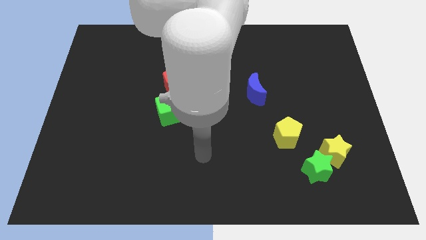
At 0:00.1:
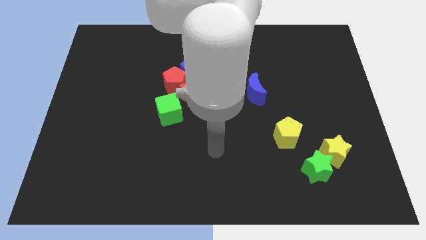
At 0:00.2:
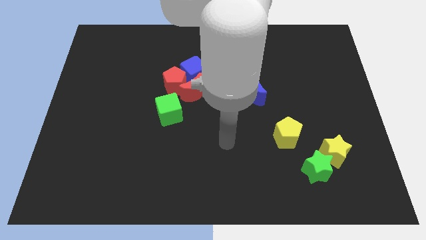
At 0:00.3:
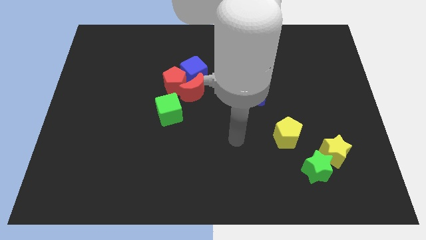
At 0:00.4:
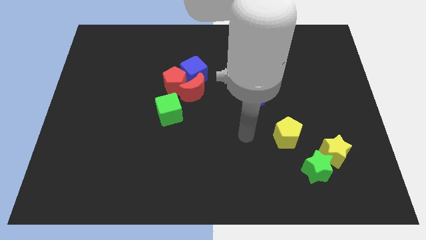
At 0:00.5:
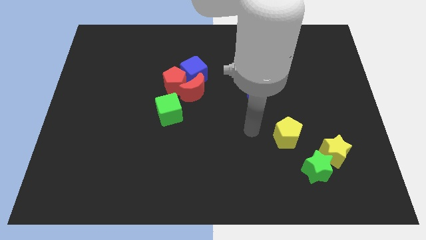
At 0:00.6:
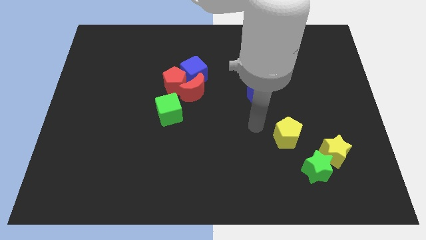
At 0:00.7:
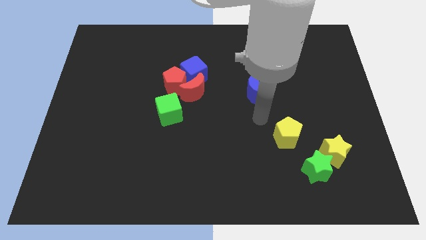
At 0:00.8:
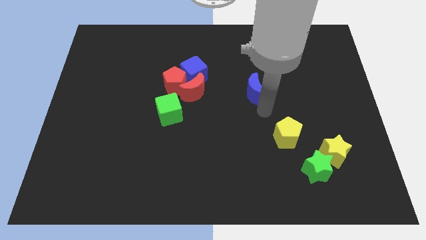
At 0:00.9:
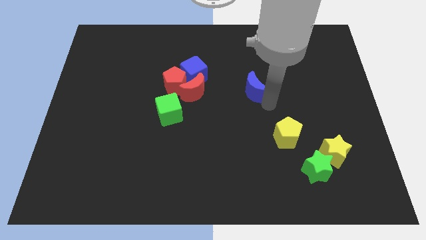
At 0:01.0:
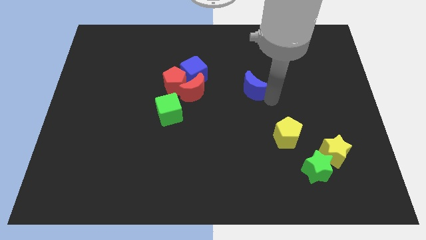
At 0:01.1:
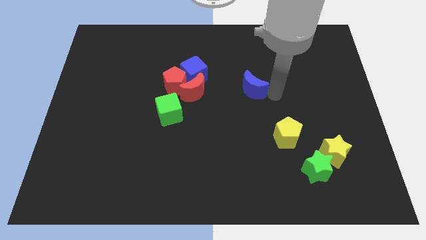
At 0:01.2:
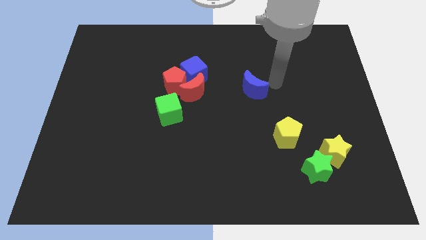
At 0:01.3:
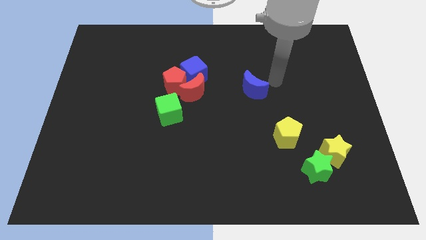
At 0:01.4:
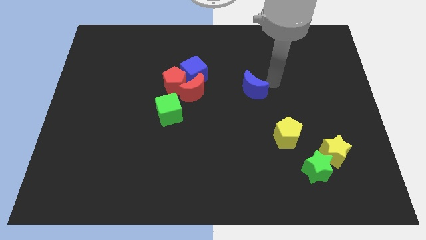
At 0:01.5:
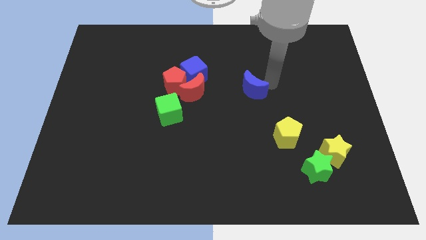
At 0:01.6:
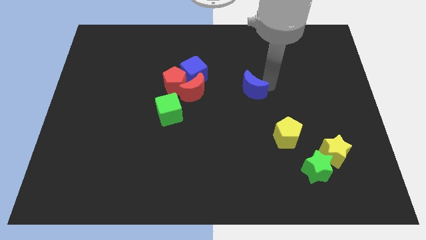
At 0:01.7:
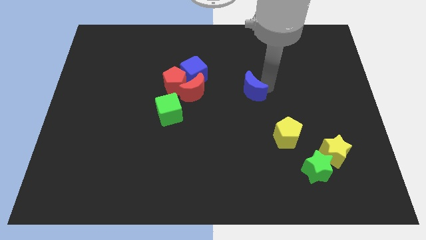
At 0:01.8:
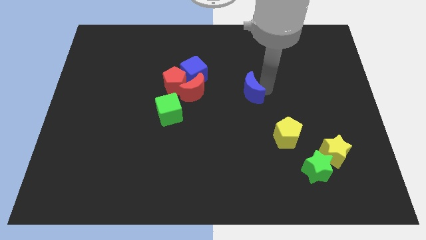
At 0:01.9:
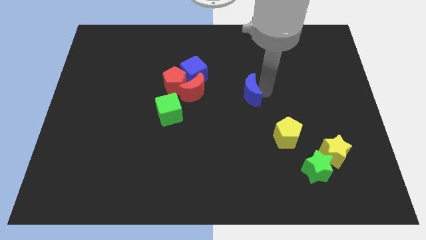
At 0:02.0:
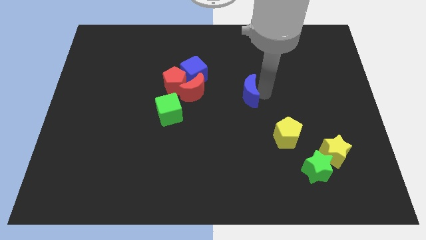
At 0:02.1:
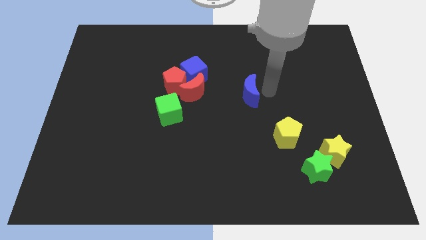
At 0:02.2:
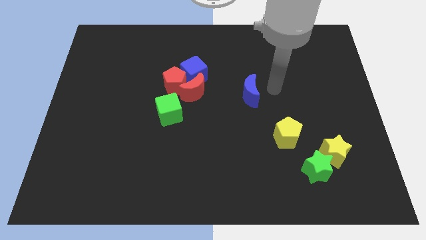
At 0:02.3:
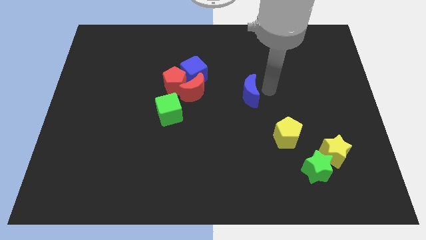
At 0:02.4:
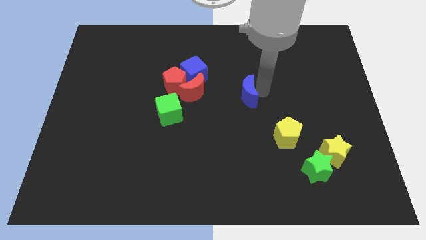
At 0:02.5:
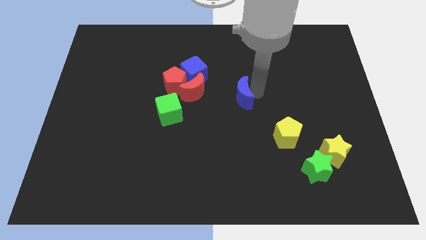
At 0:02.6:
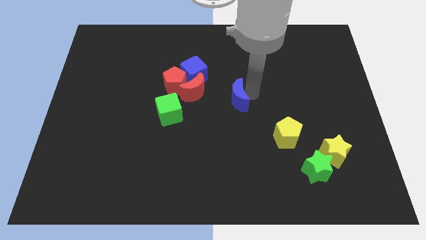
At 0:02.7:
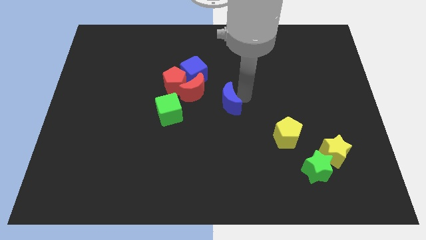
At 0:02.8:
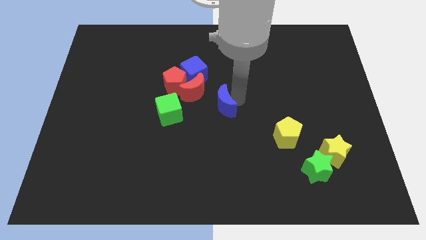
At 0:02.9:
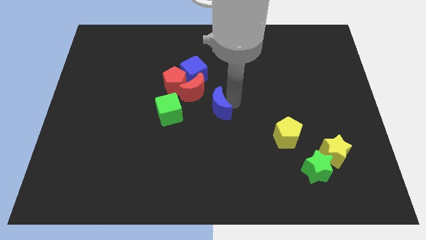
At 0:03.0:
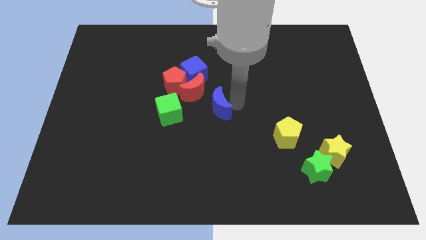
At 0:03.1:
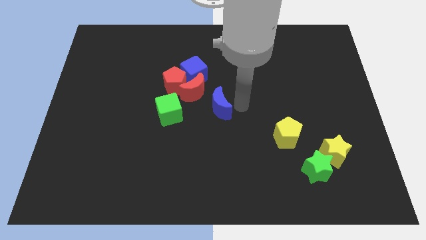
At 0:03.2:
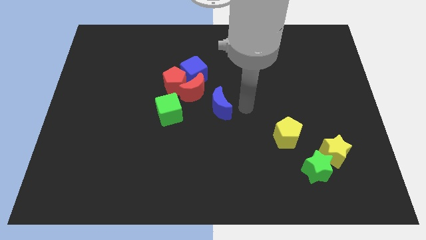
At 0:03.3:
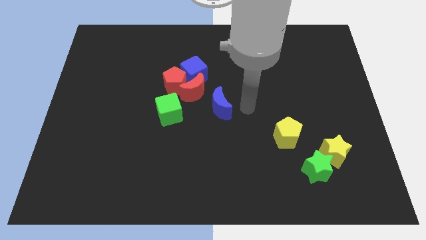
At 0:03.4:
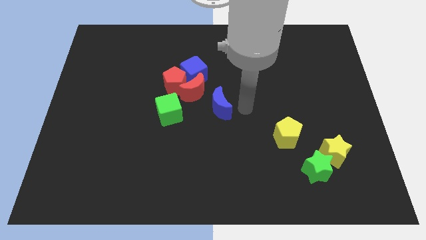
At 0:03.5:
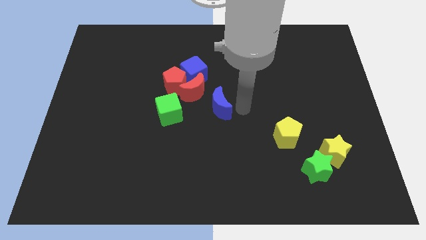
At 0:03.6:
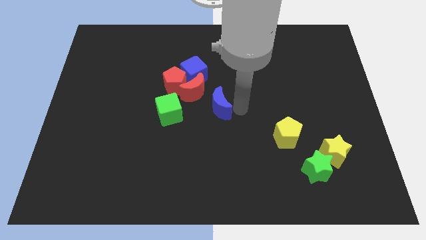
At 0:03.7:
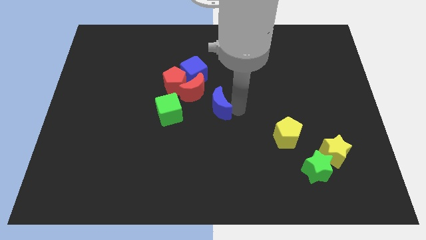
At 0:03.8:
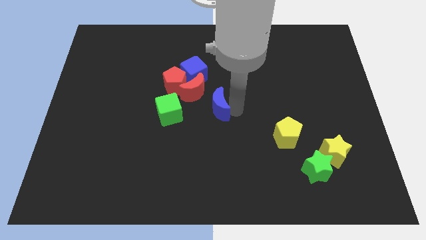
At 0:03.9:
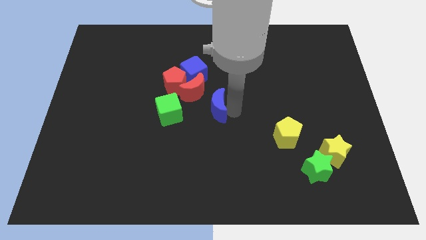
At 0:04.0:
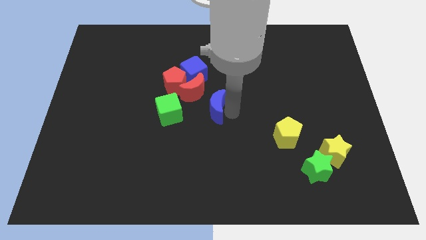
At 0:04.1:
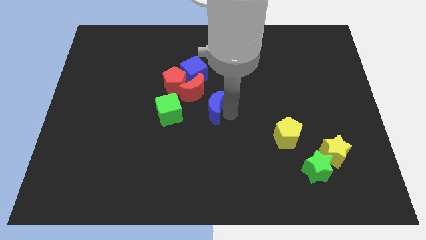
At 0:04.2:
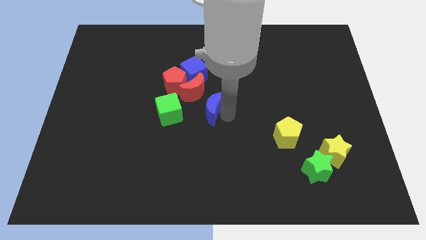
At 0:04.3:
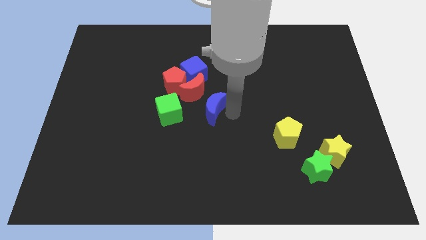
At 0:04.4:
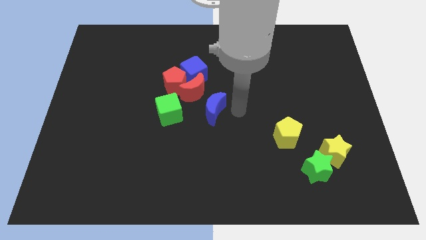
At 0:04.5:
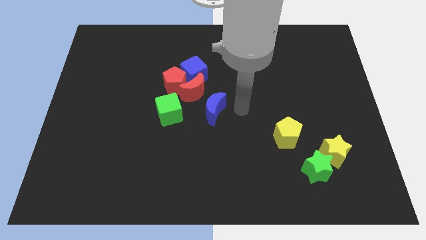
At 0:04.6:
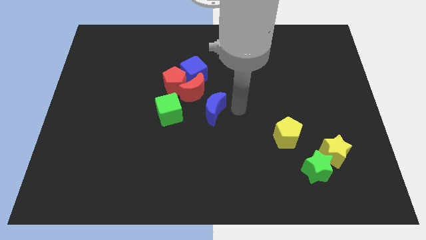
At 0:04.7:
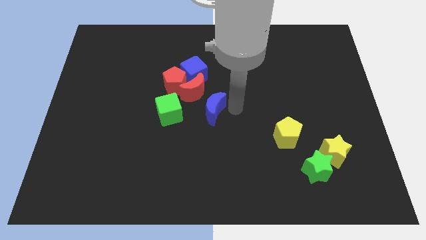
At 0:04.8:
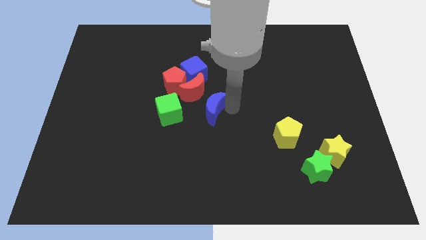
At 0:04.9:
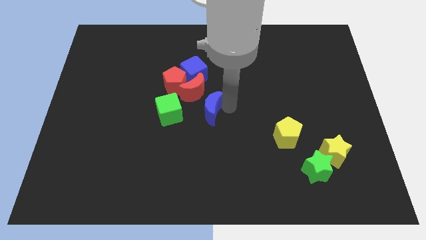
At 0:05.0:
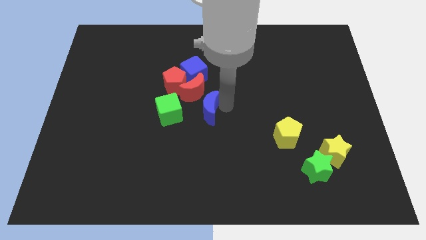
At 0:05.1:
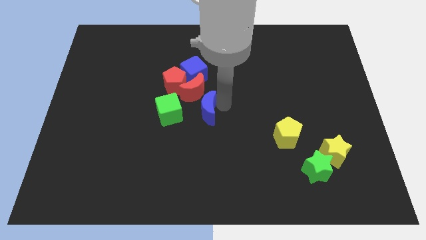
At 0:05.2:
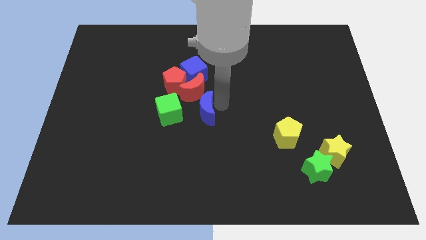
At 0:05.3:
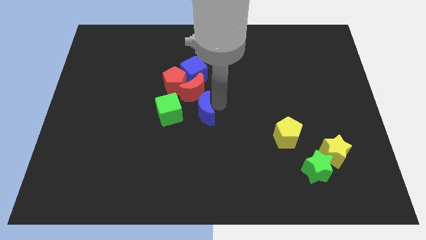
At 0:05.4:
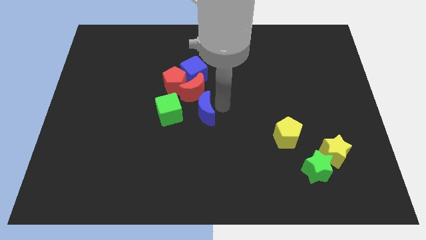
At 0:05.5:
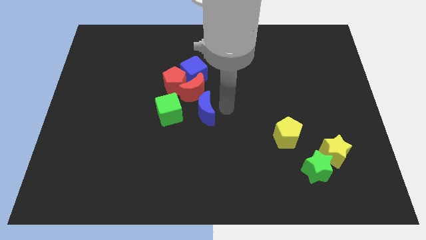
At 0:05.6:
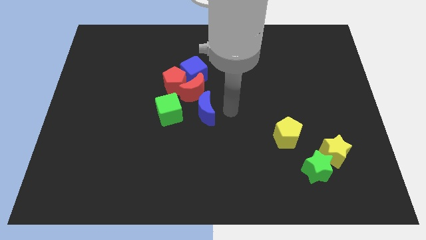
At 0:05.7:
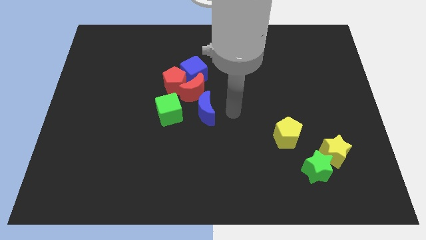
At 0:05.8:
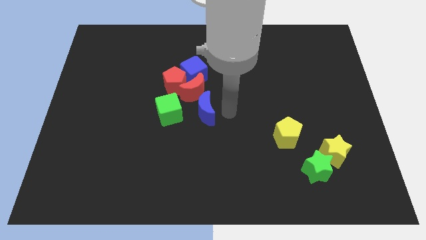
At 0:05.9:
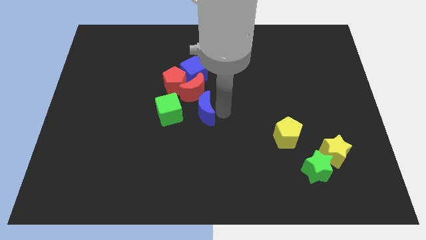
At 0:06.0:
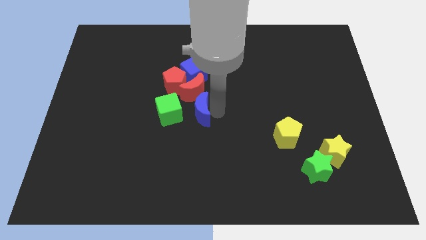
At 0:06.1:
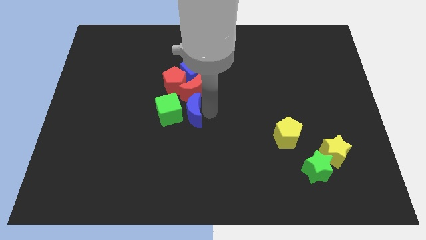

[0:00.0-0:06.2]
move the blue moon towards the green cube
